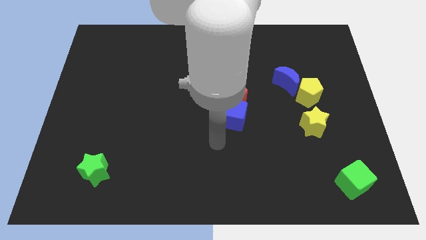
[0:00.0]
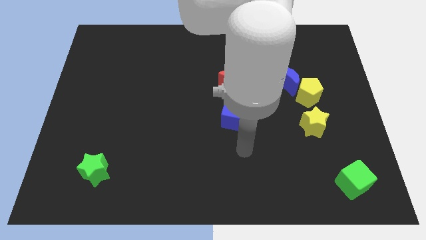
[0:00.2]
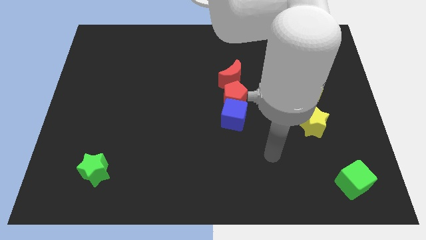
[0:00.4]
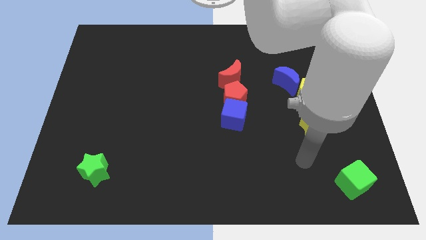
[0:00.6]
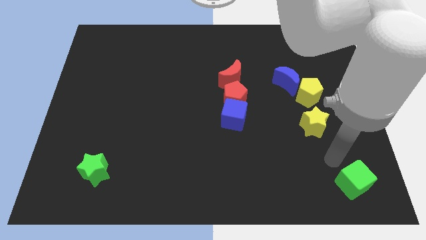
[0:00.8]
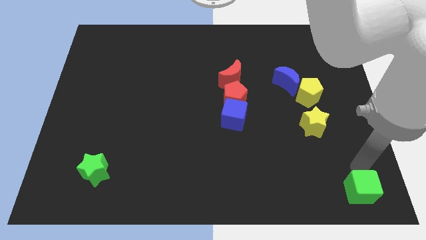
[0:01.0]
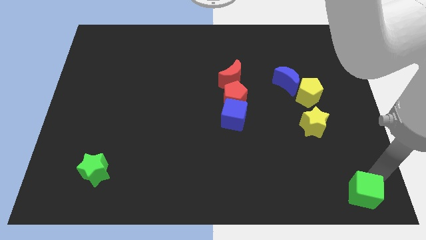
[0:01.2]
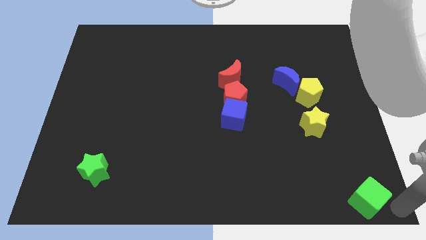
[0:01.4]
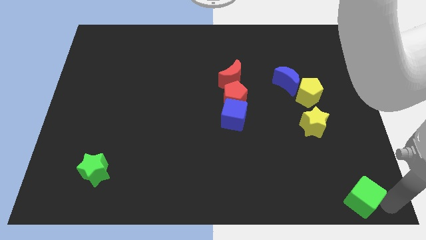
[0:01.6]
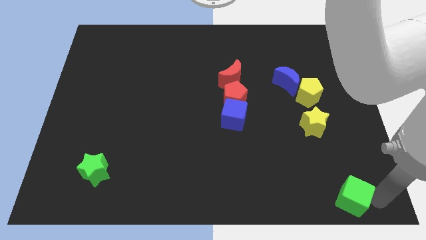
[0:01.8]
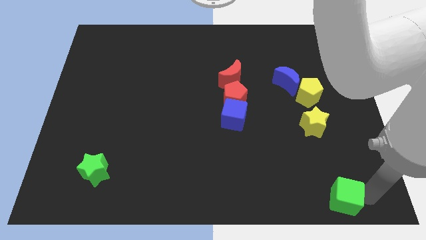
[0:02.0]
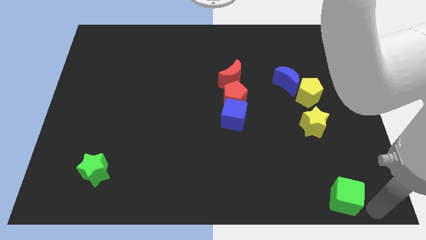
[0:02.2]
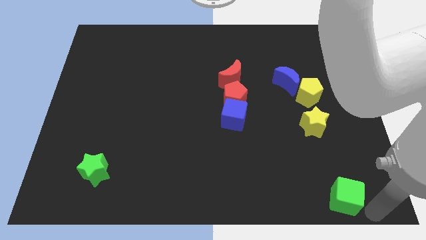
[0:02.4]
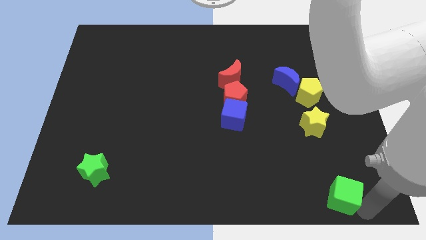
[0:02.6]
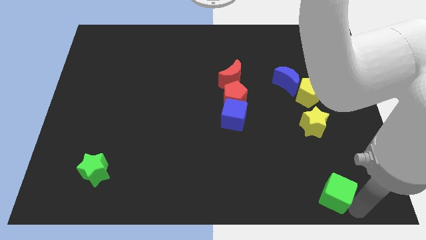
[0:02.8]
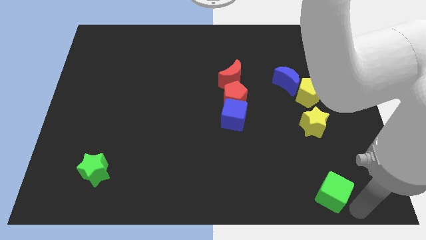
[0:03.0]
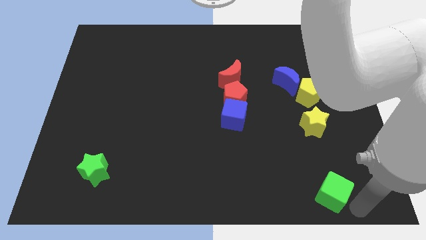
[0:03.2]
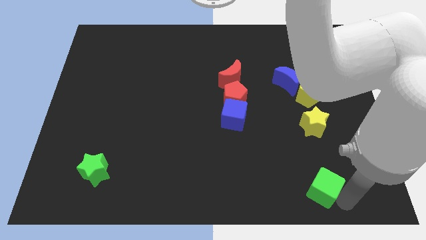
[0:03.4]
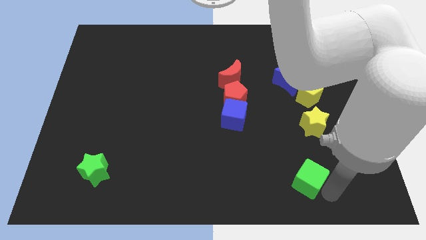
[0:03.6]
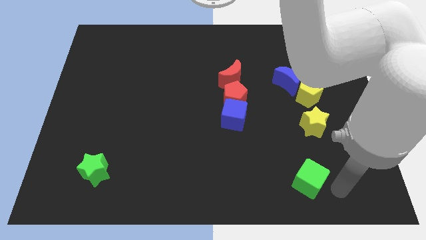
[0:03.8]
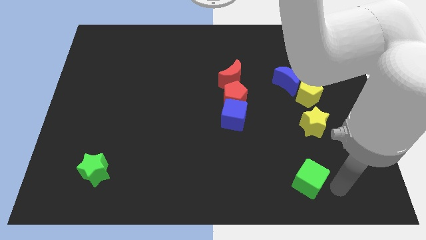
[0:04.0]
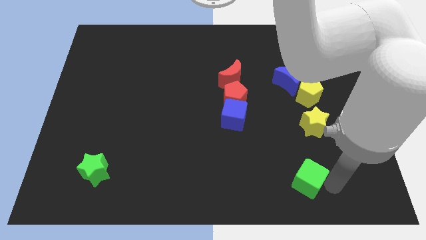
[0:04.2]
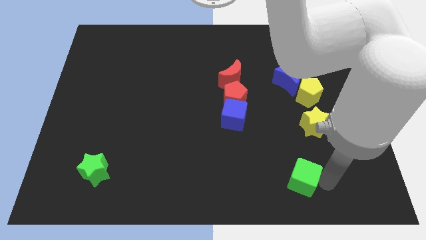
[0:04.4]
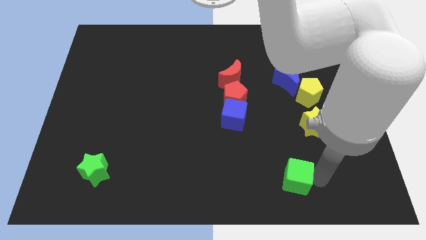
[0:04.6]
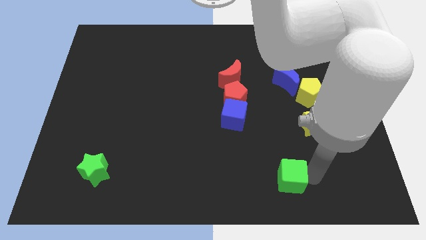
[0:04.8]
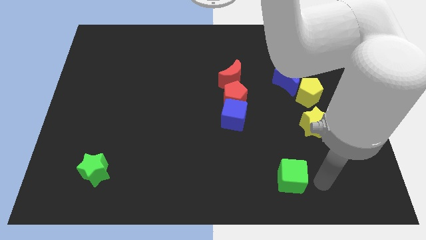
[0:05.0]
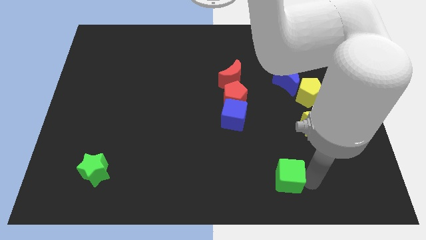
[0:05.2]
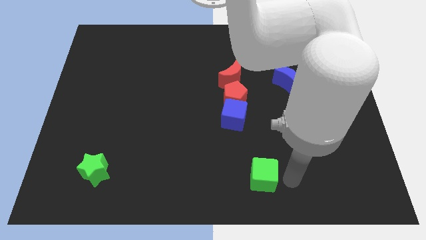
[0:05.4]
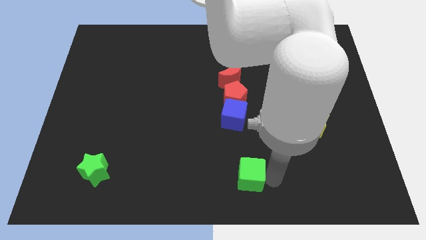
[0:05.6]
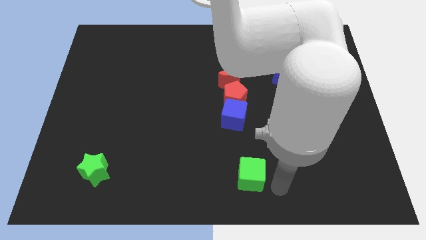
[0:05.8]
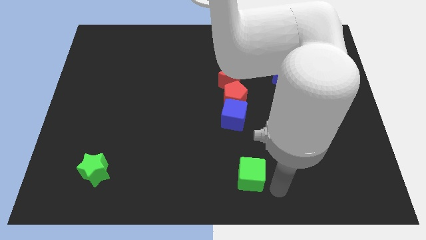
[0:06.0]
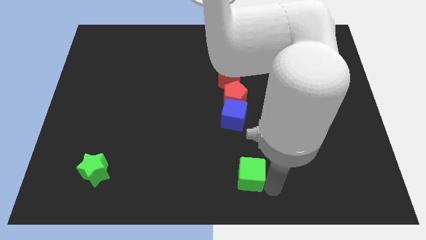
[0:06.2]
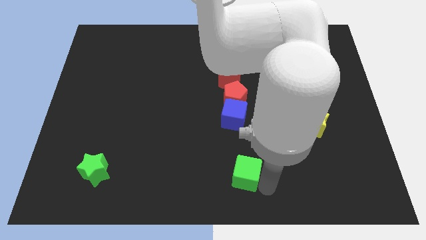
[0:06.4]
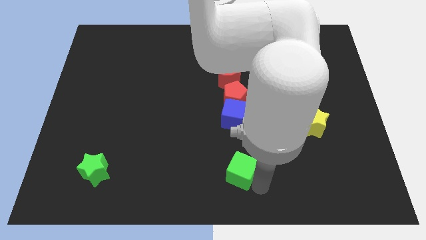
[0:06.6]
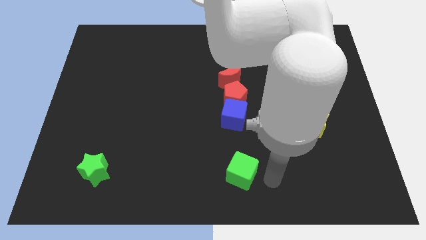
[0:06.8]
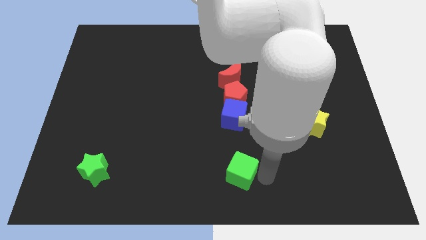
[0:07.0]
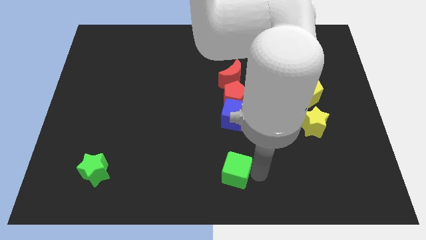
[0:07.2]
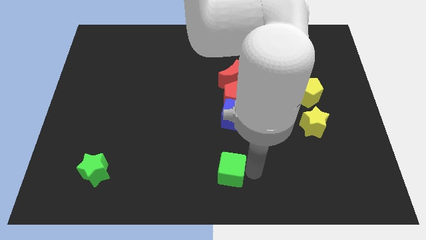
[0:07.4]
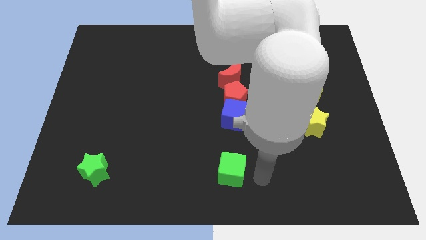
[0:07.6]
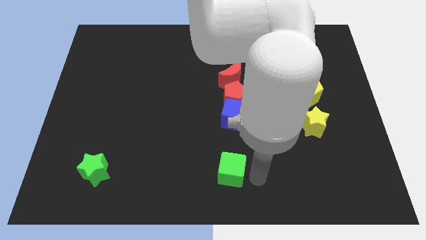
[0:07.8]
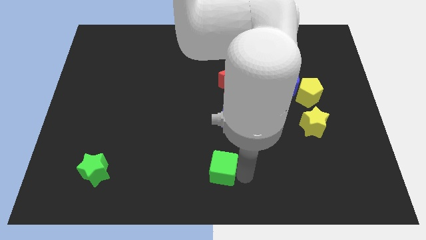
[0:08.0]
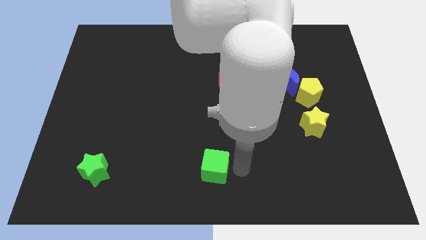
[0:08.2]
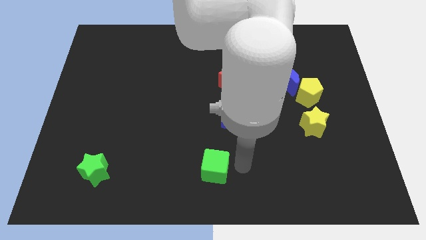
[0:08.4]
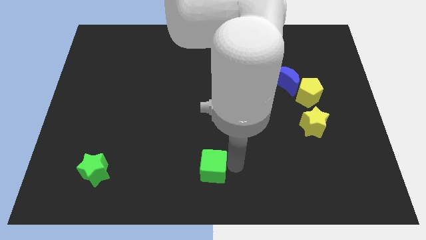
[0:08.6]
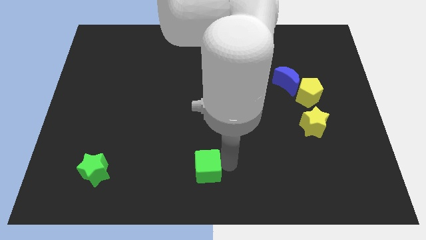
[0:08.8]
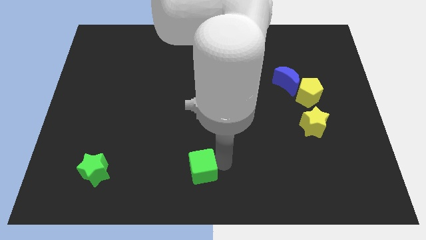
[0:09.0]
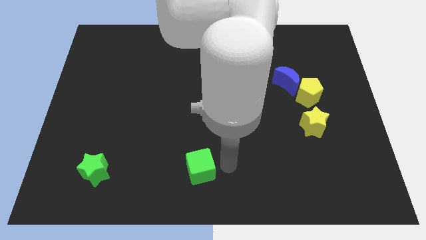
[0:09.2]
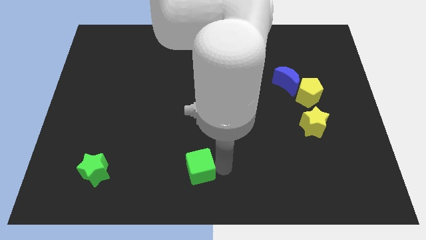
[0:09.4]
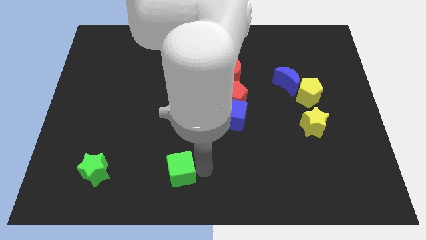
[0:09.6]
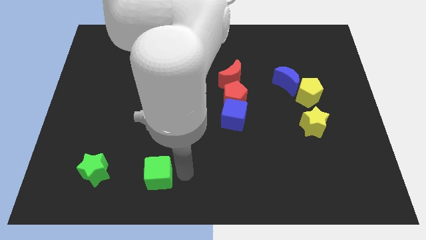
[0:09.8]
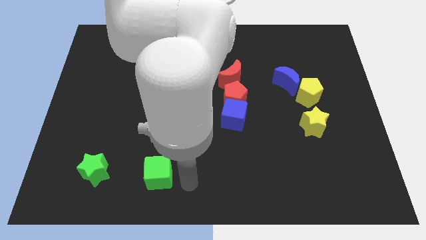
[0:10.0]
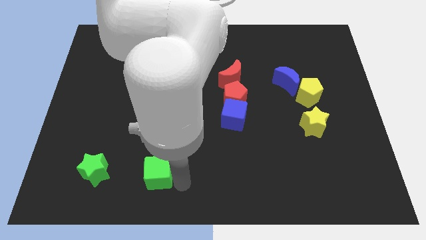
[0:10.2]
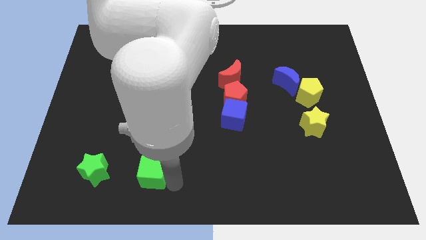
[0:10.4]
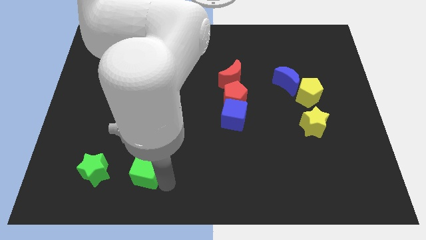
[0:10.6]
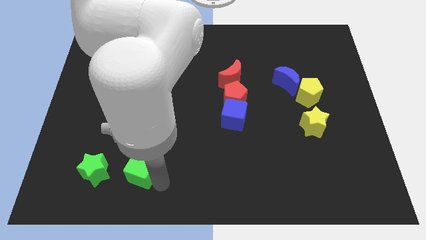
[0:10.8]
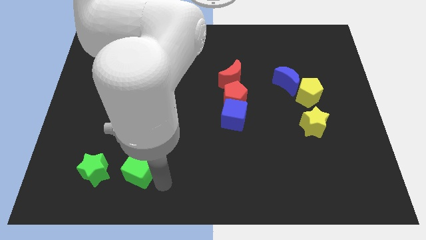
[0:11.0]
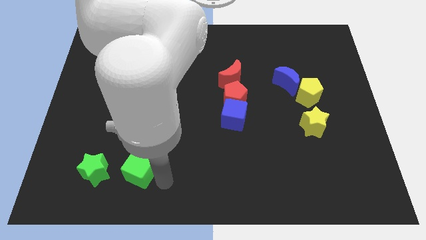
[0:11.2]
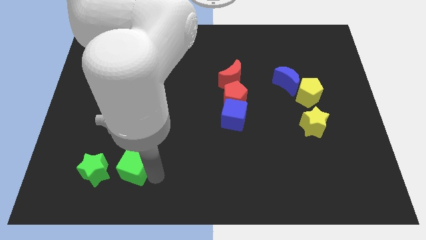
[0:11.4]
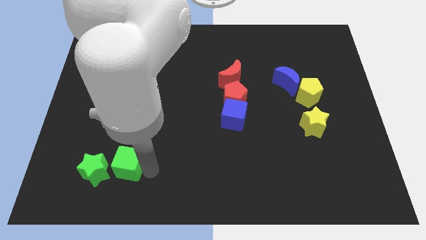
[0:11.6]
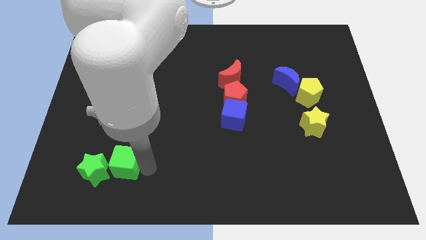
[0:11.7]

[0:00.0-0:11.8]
slide the green cube next to the green star
